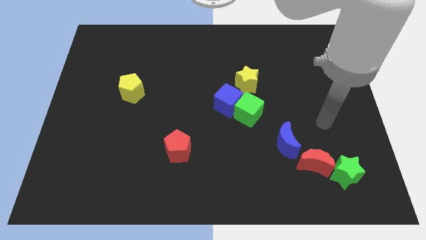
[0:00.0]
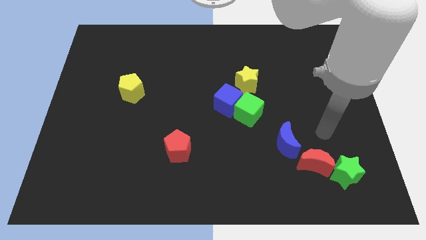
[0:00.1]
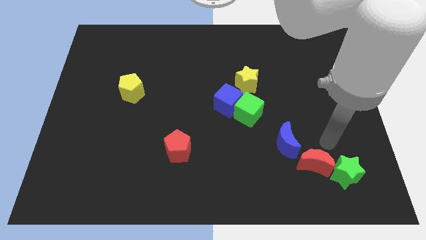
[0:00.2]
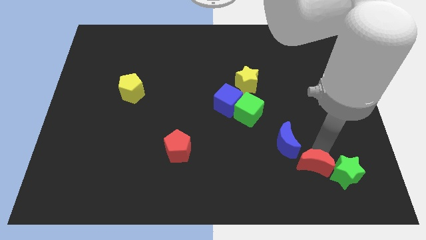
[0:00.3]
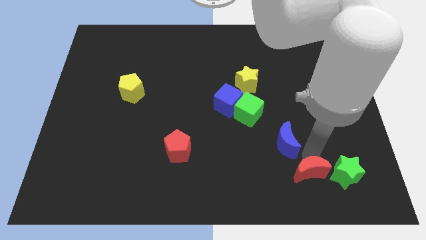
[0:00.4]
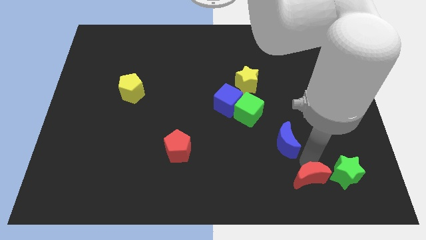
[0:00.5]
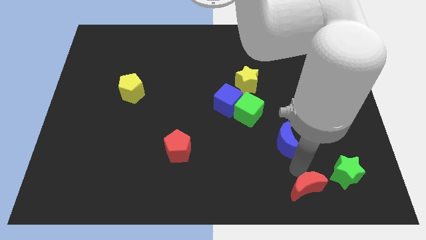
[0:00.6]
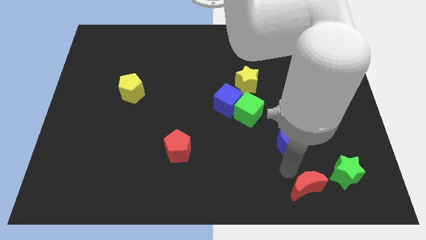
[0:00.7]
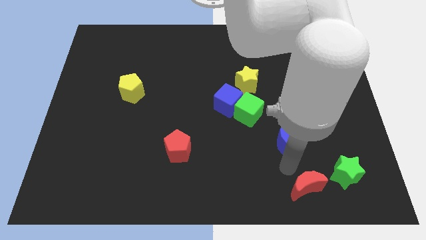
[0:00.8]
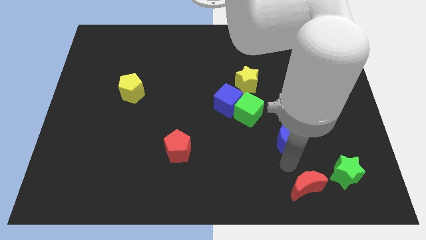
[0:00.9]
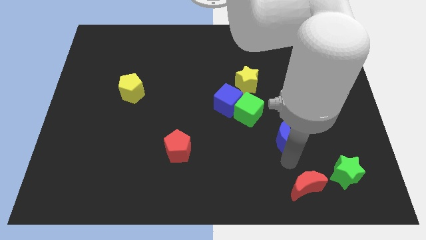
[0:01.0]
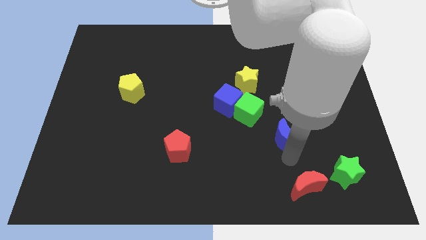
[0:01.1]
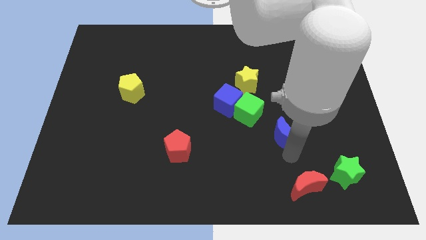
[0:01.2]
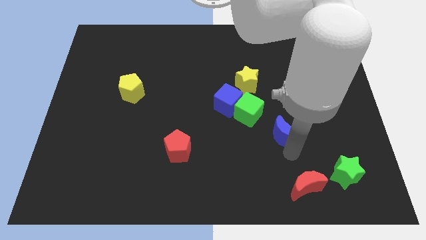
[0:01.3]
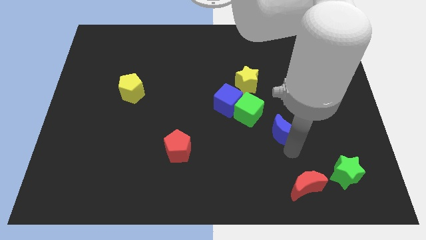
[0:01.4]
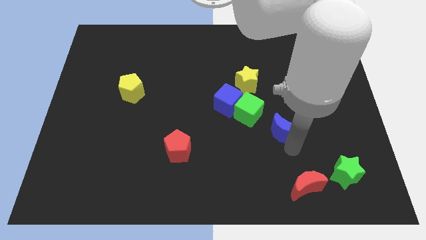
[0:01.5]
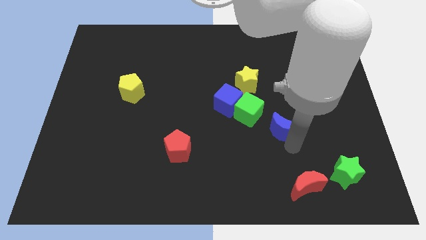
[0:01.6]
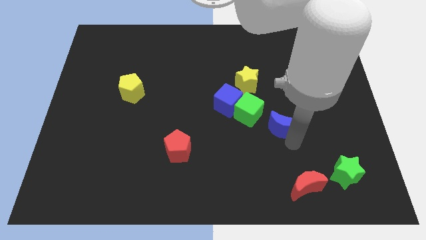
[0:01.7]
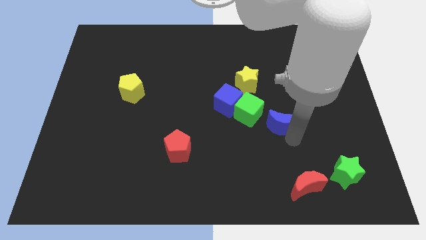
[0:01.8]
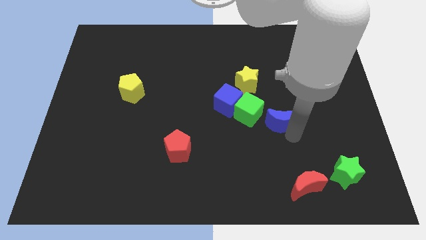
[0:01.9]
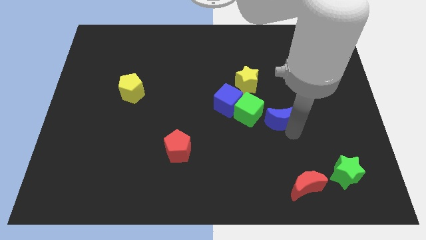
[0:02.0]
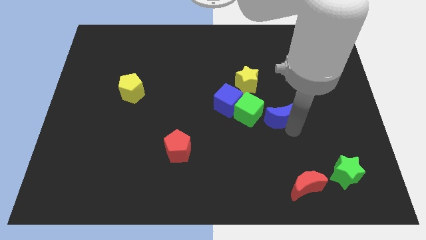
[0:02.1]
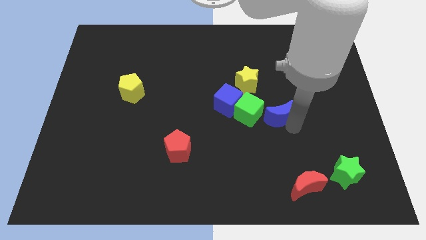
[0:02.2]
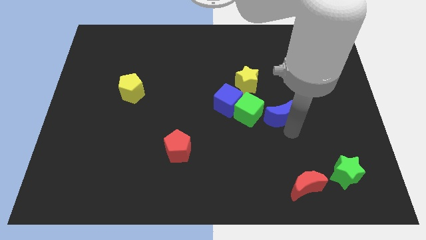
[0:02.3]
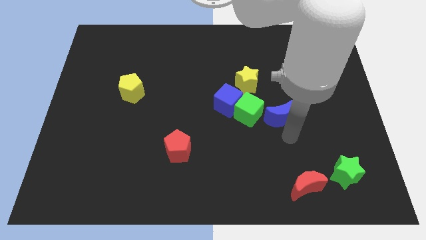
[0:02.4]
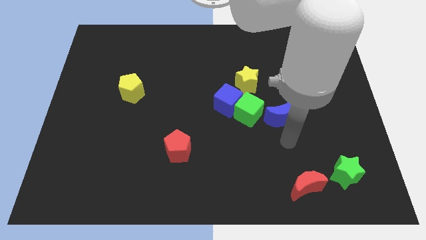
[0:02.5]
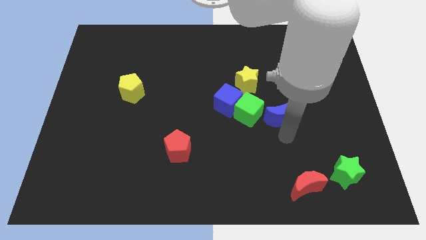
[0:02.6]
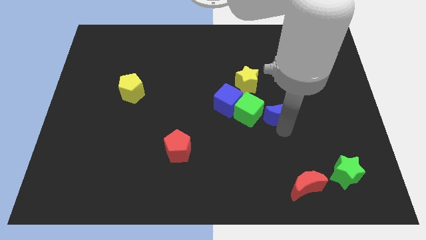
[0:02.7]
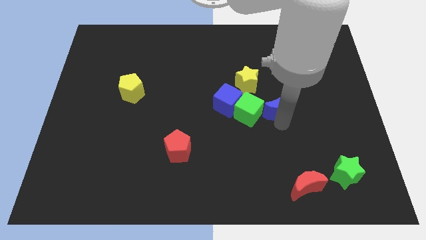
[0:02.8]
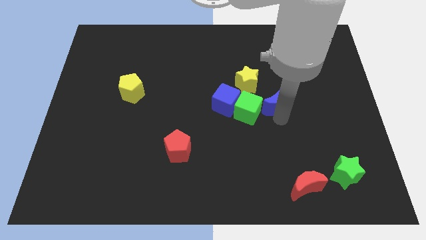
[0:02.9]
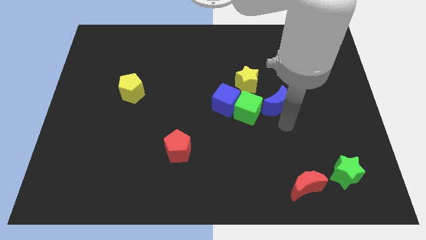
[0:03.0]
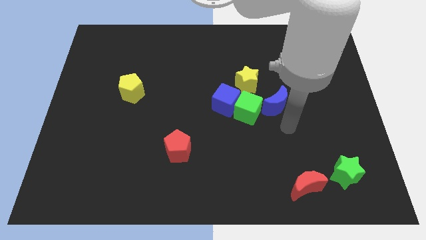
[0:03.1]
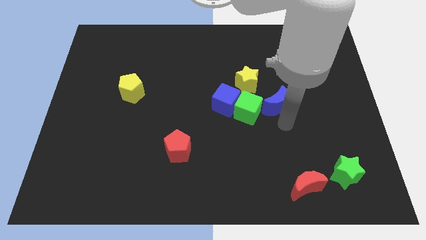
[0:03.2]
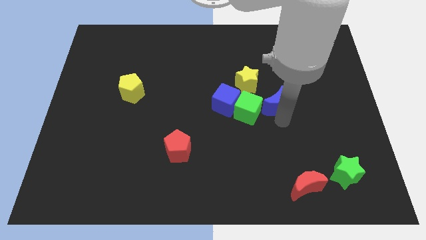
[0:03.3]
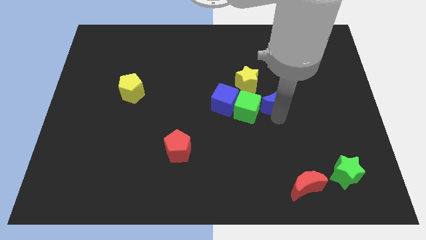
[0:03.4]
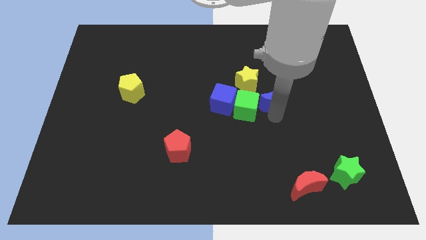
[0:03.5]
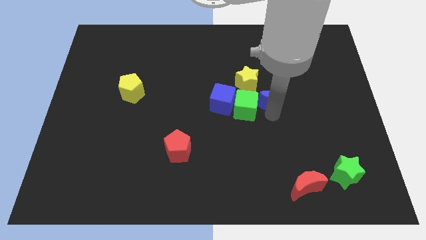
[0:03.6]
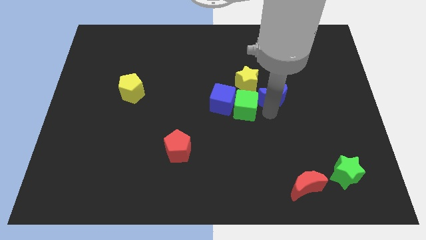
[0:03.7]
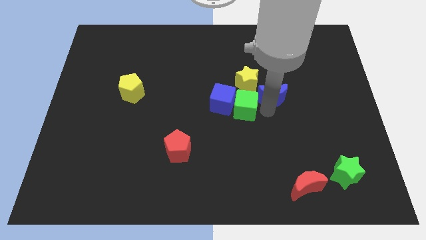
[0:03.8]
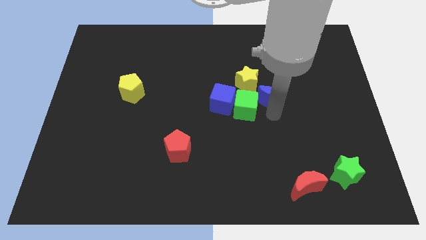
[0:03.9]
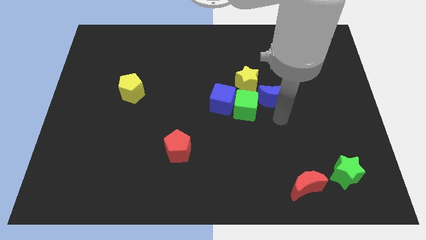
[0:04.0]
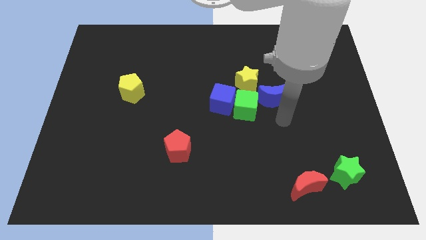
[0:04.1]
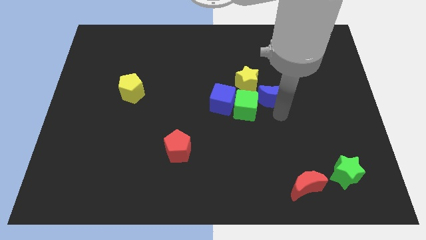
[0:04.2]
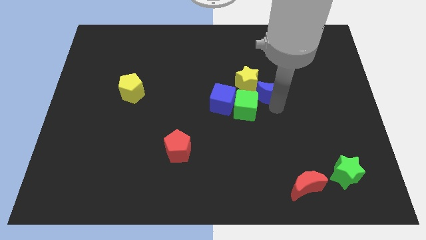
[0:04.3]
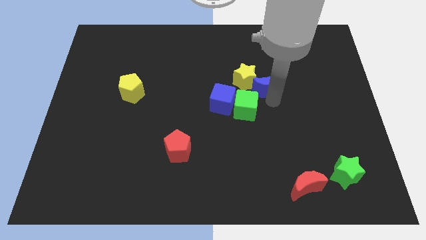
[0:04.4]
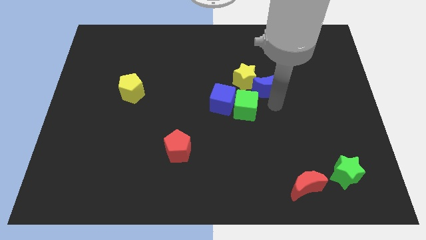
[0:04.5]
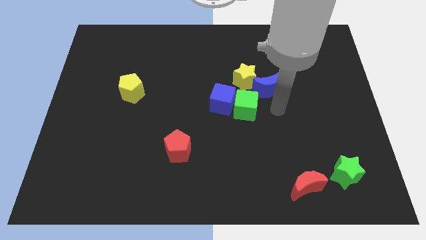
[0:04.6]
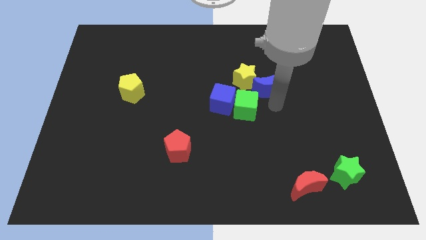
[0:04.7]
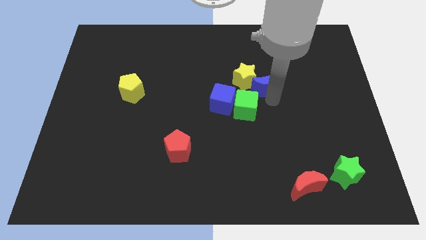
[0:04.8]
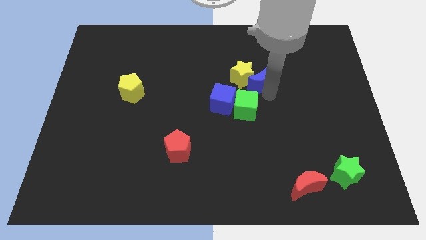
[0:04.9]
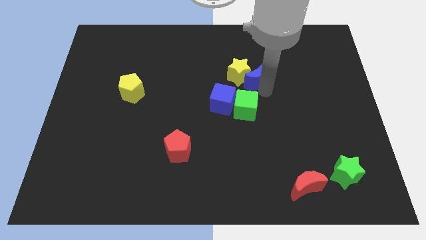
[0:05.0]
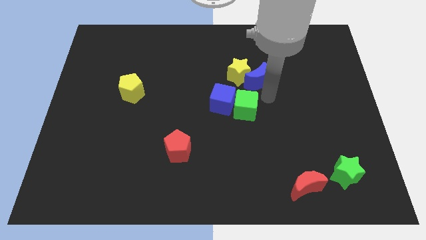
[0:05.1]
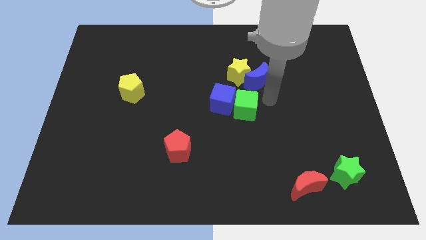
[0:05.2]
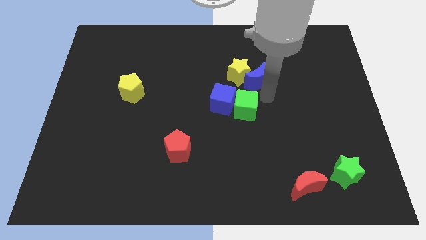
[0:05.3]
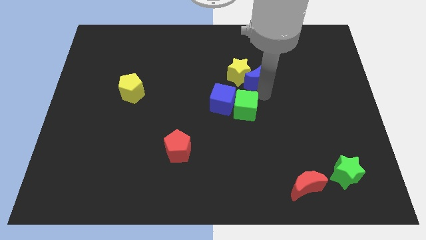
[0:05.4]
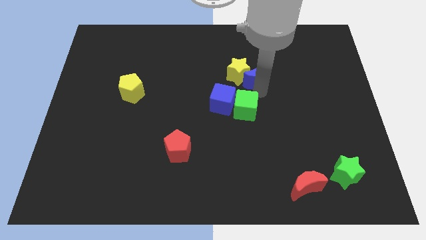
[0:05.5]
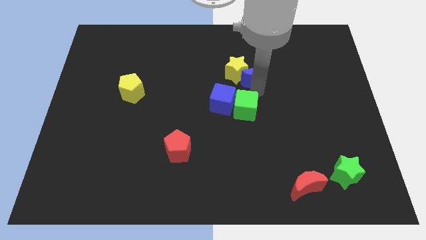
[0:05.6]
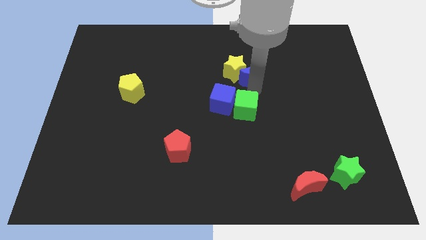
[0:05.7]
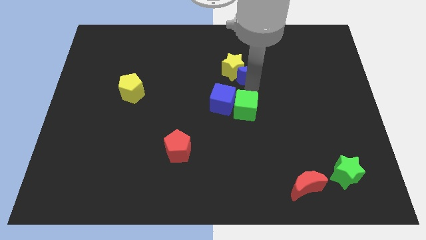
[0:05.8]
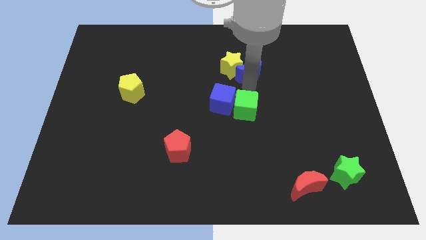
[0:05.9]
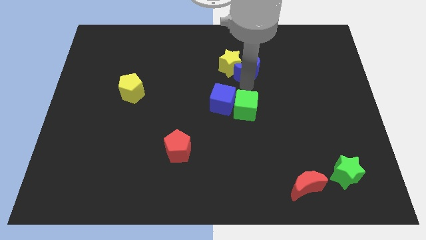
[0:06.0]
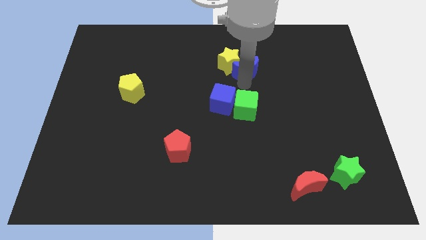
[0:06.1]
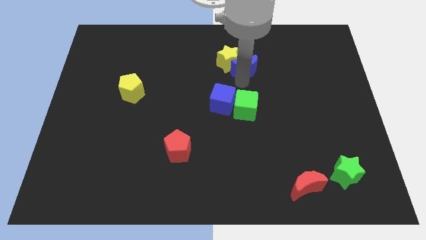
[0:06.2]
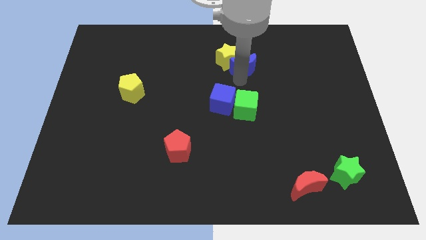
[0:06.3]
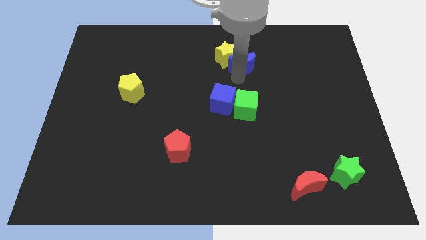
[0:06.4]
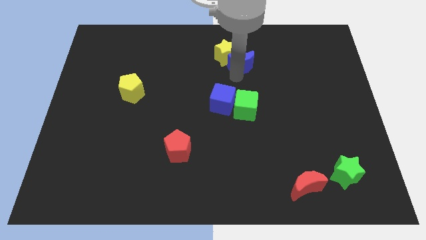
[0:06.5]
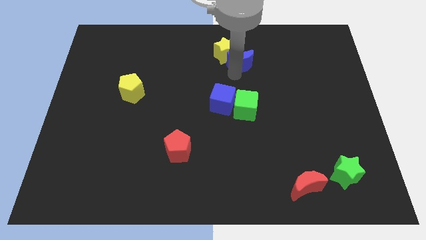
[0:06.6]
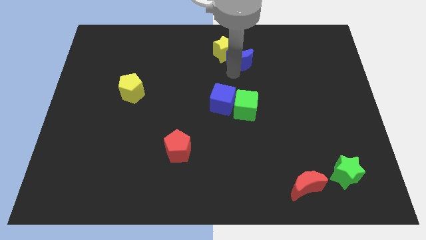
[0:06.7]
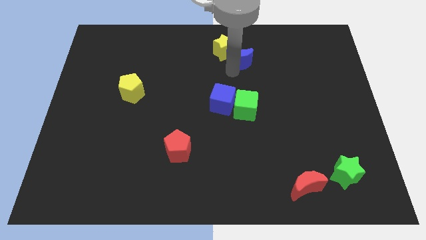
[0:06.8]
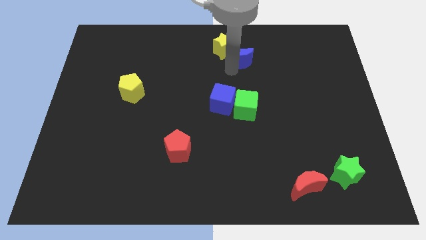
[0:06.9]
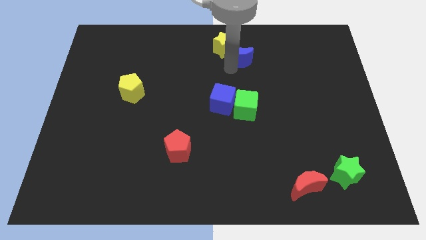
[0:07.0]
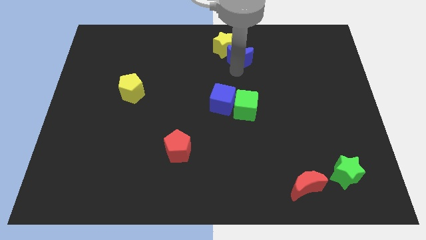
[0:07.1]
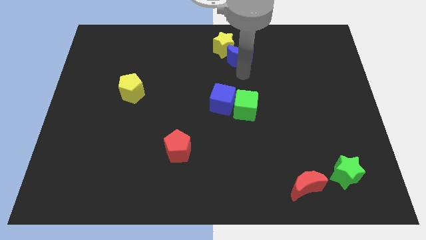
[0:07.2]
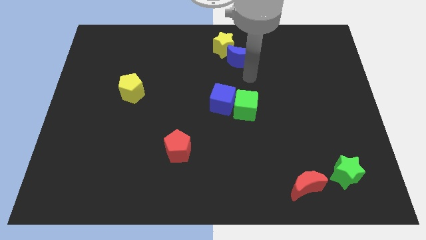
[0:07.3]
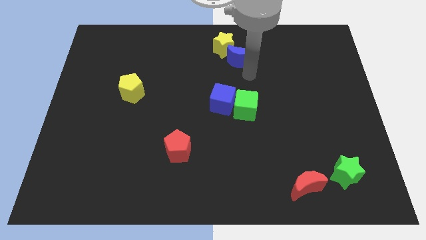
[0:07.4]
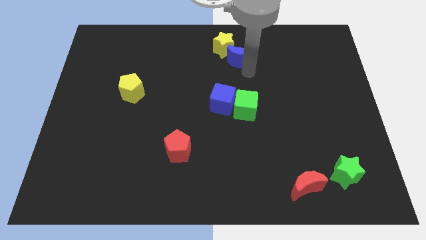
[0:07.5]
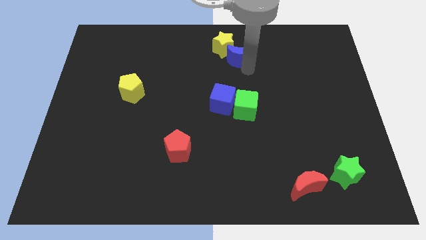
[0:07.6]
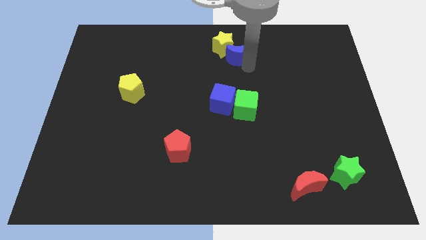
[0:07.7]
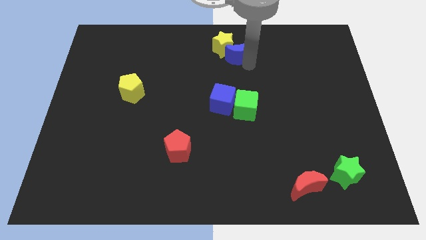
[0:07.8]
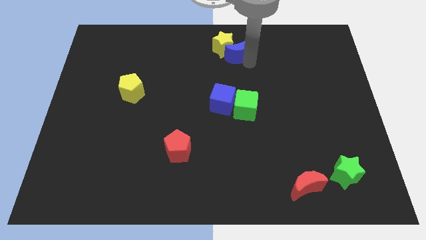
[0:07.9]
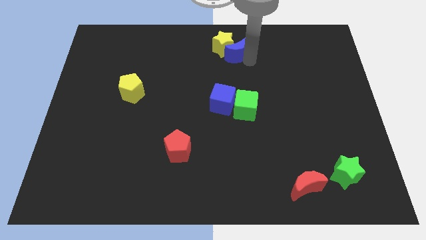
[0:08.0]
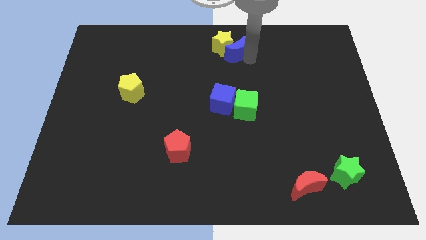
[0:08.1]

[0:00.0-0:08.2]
slide the blue moon to the towards your base
